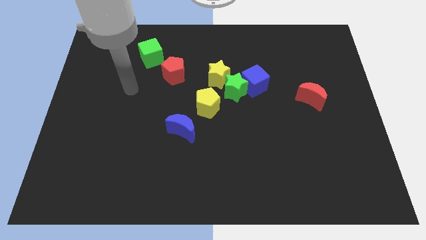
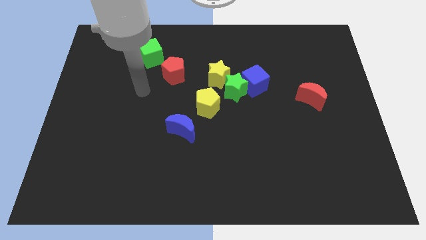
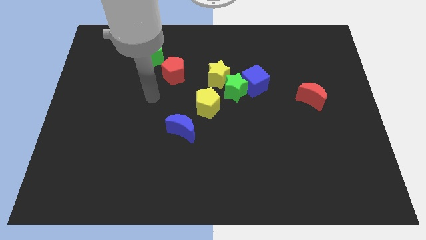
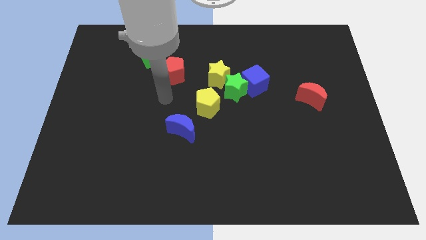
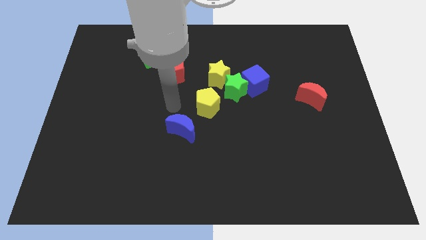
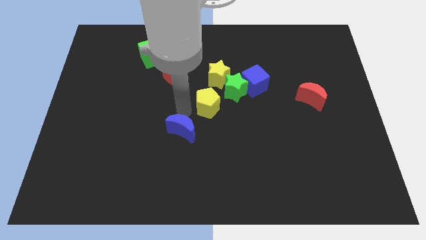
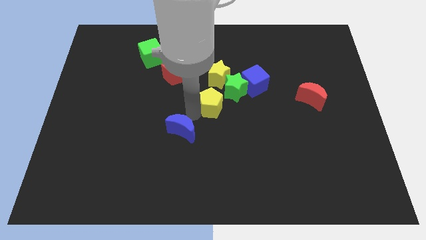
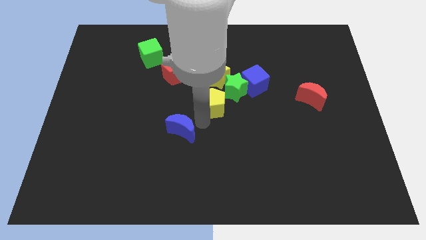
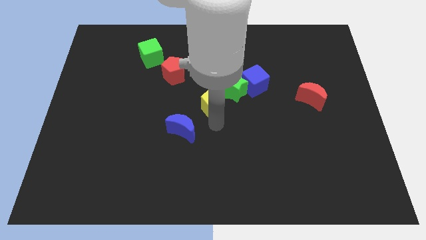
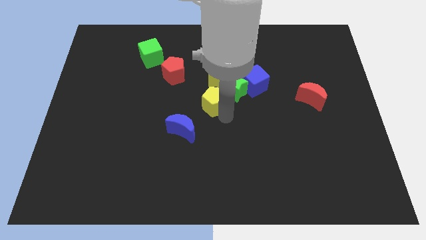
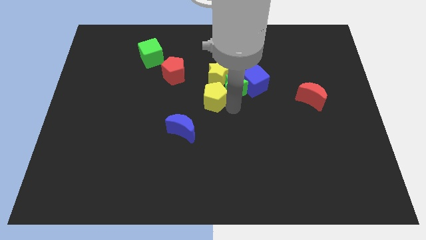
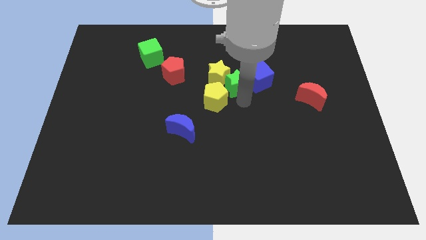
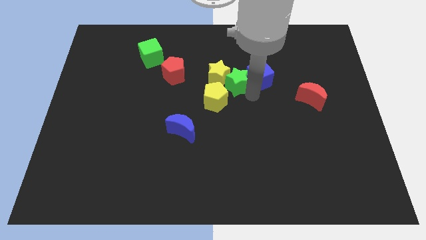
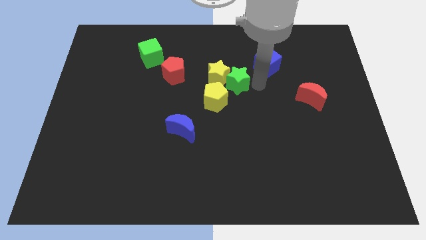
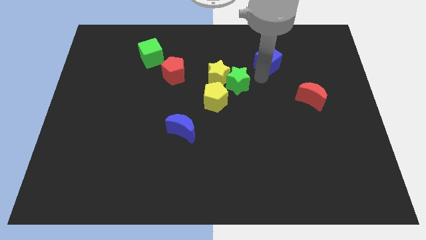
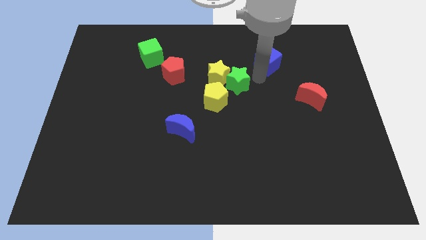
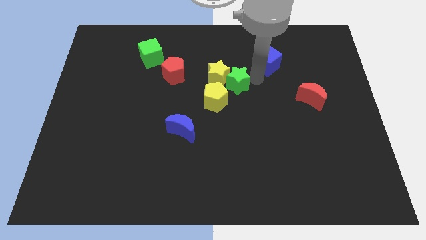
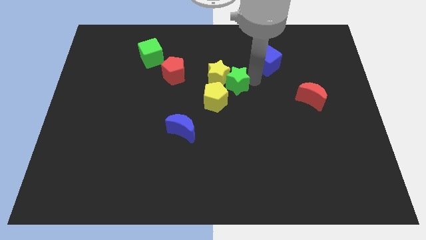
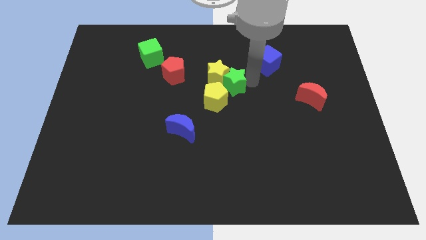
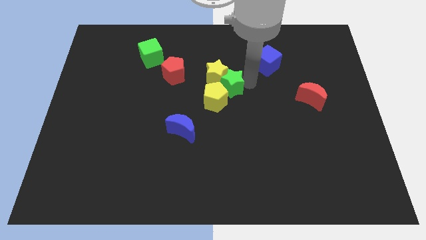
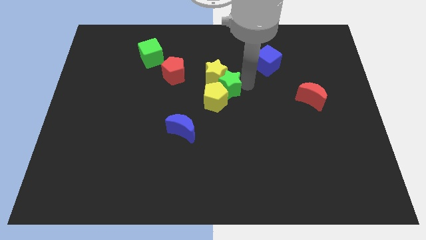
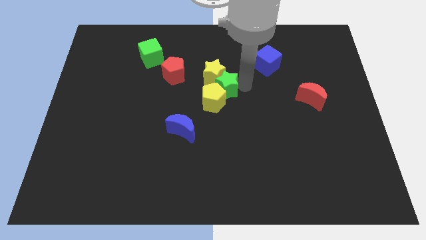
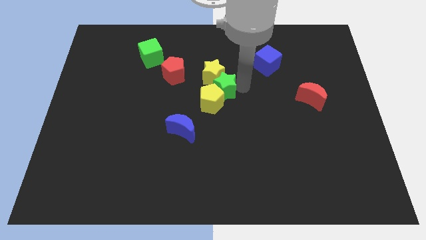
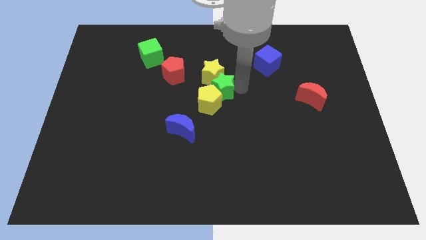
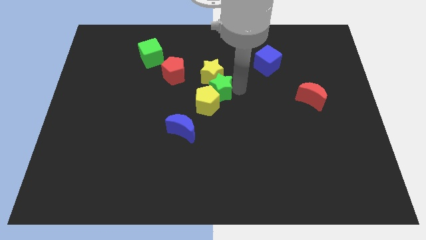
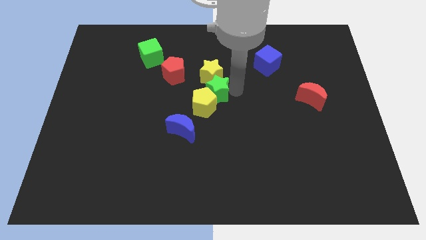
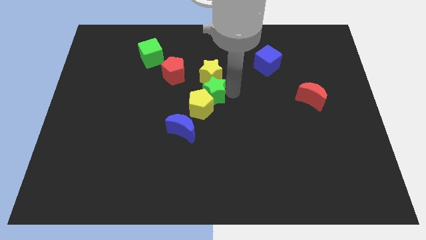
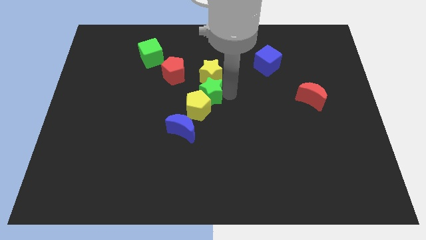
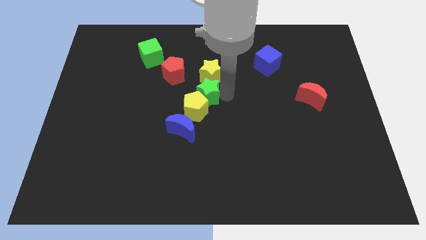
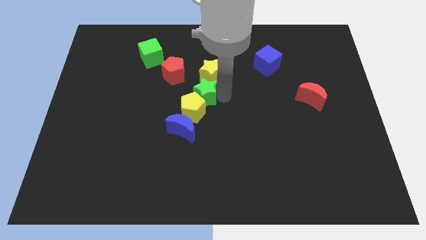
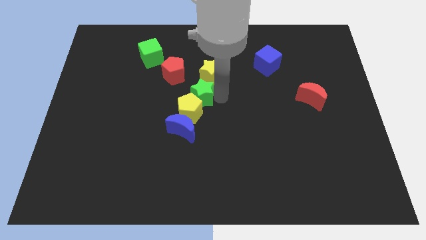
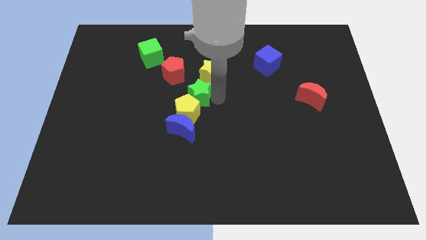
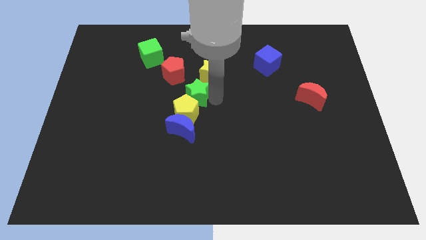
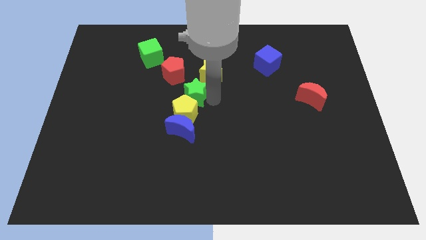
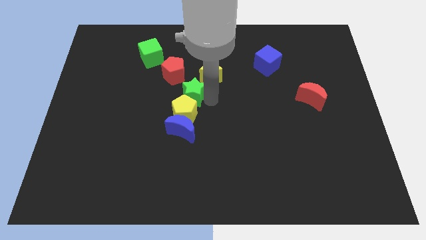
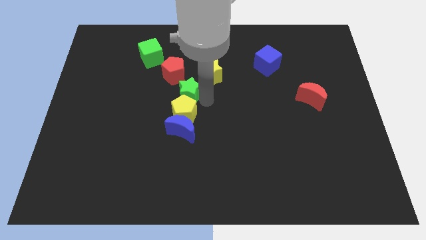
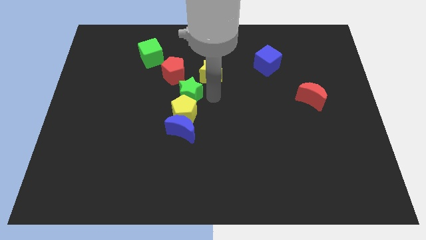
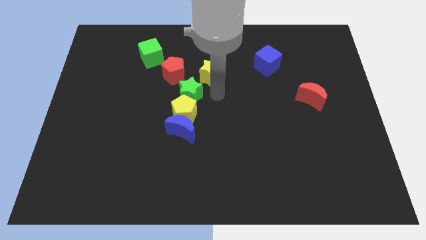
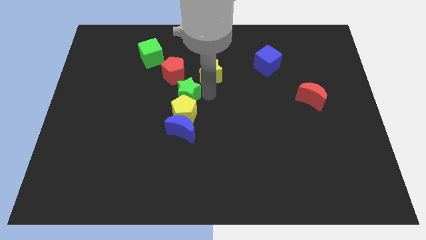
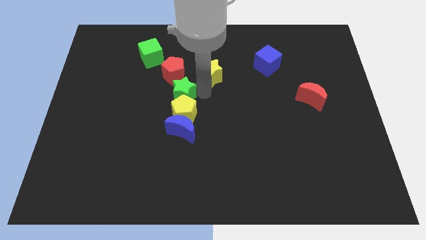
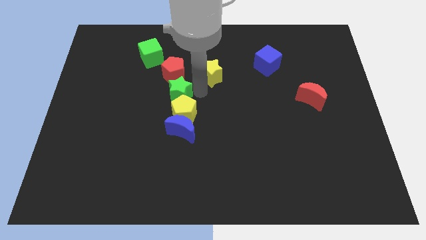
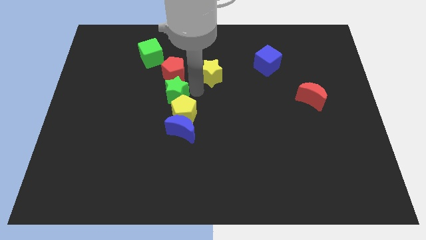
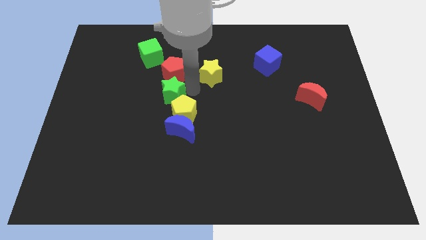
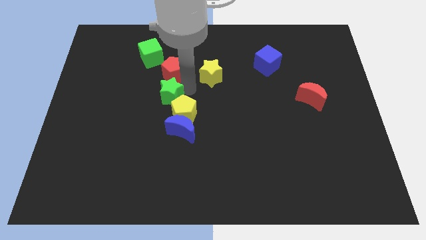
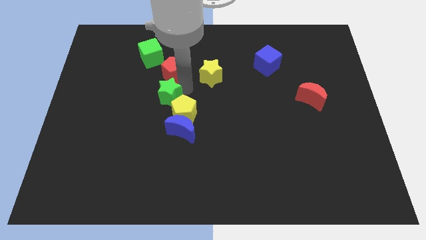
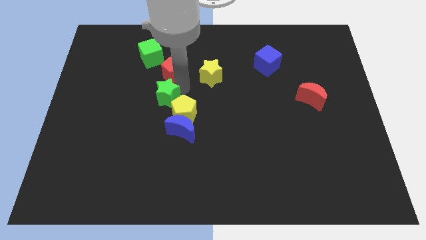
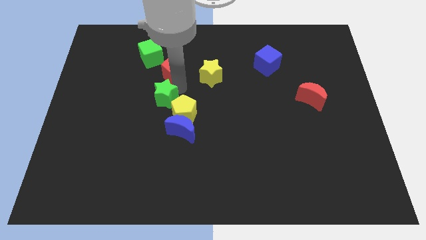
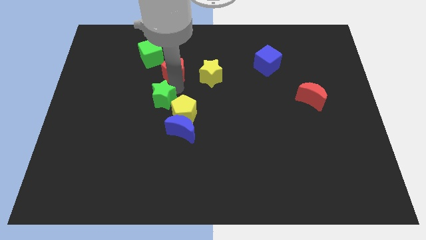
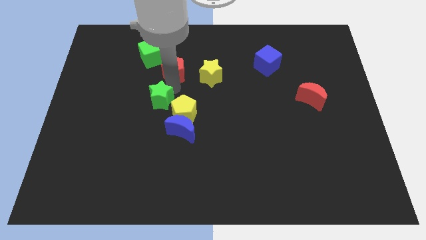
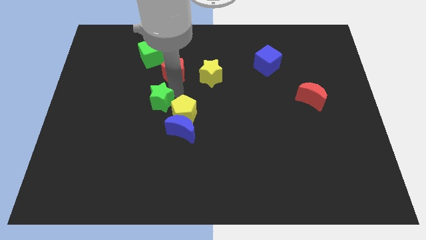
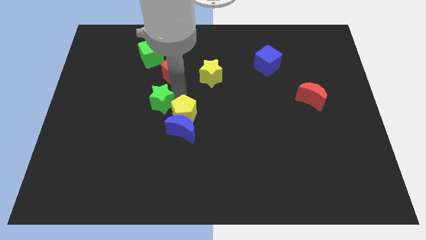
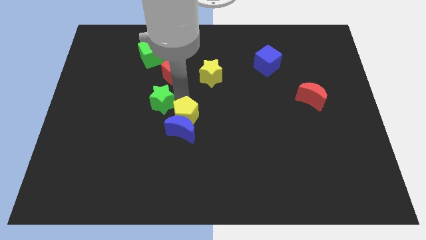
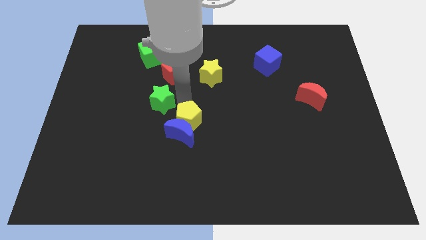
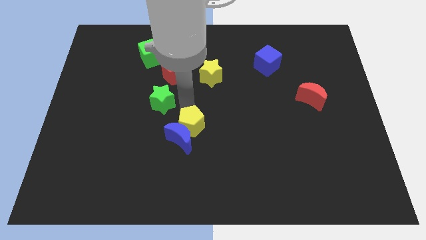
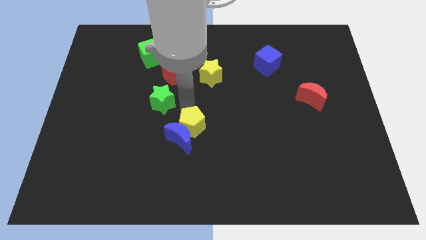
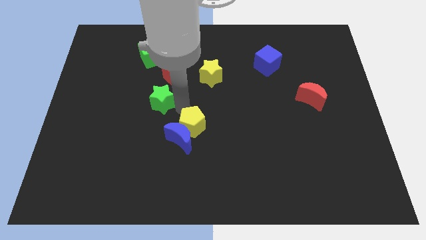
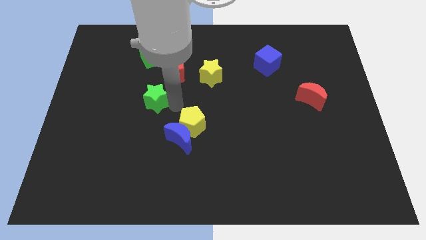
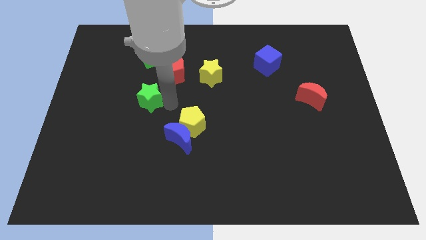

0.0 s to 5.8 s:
move the green star to the left

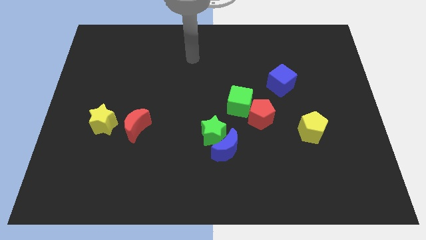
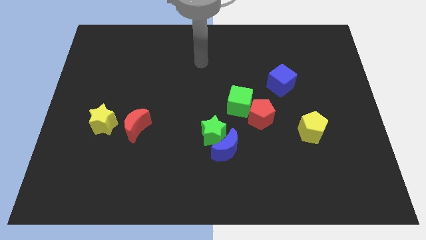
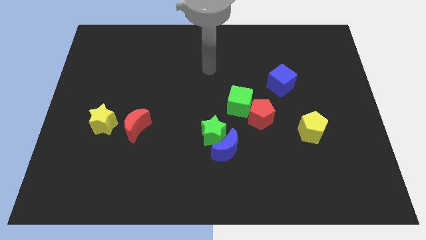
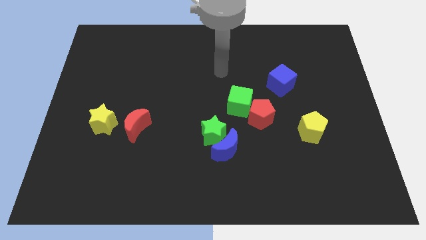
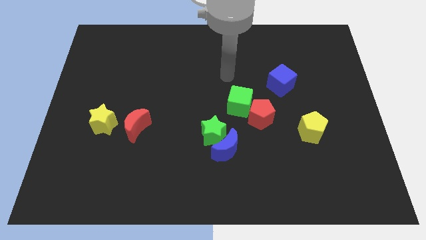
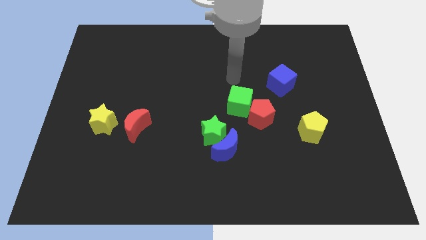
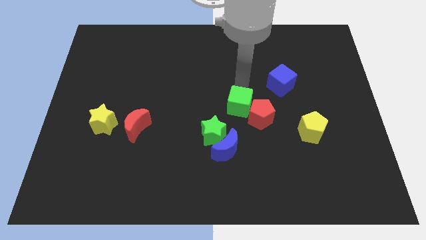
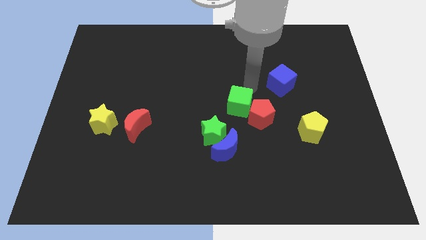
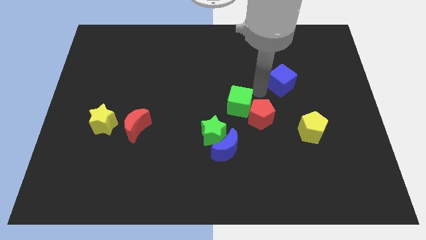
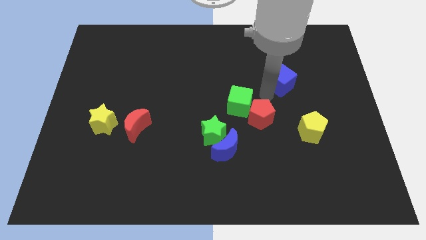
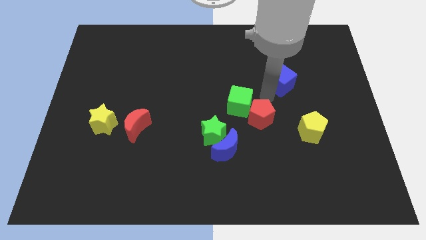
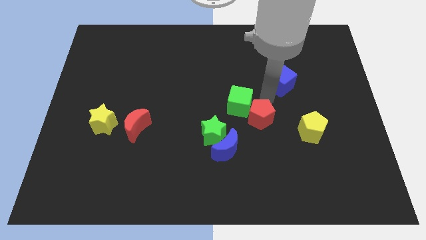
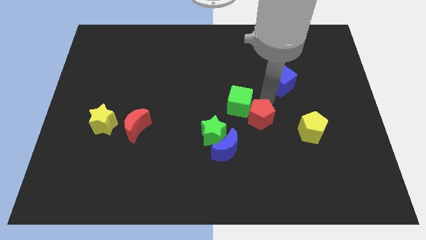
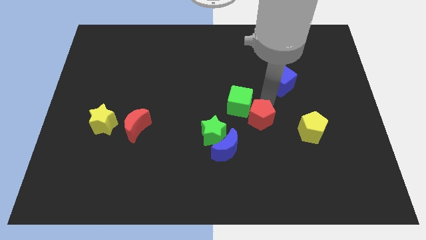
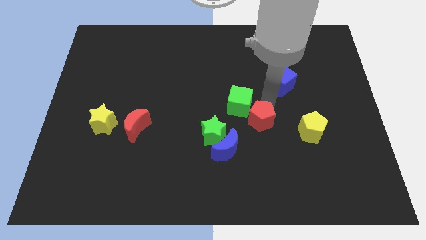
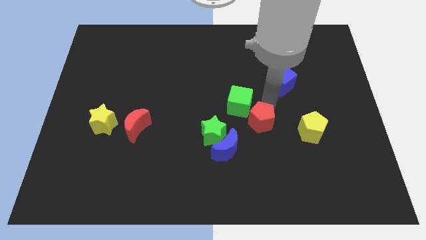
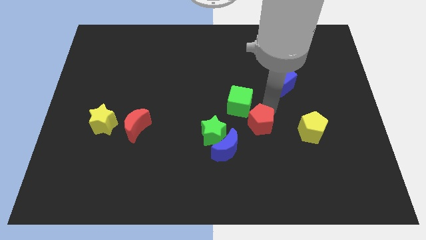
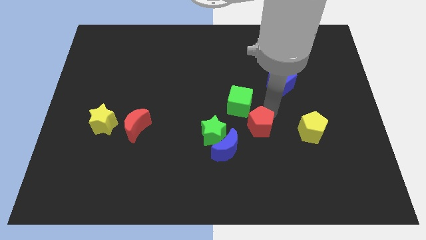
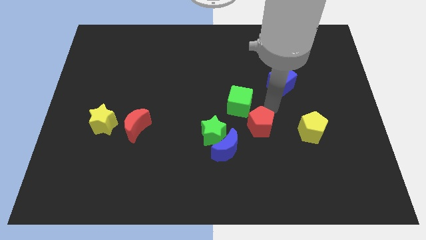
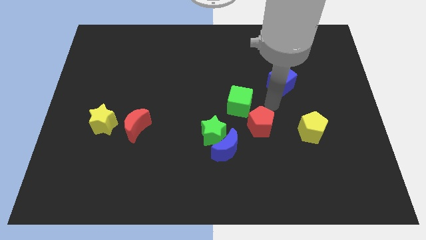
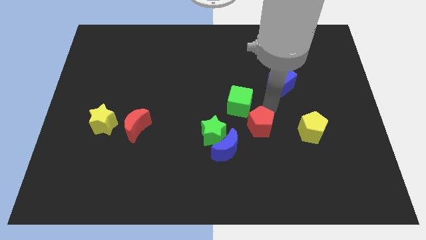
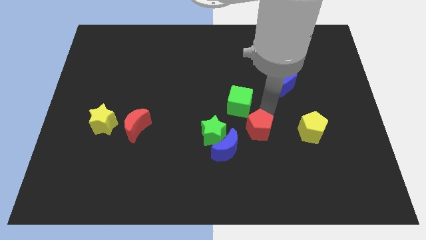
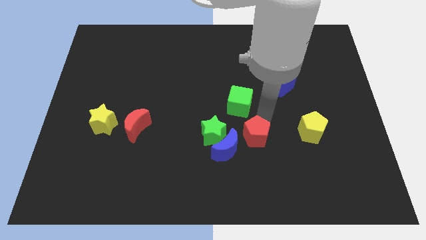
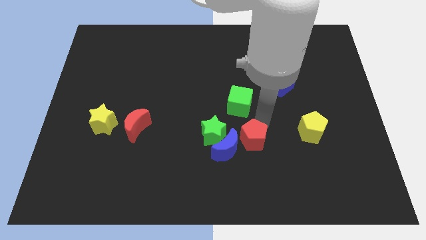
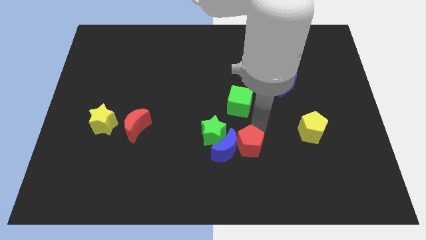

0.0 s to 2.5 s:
slightly push the red pentagon downwards and to the left diagonally
